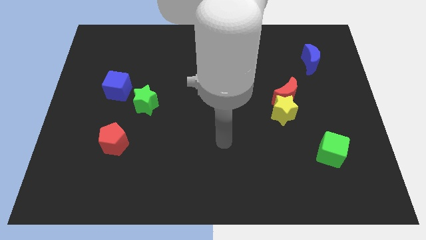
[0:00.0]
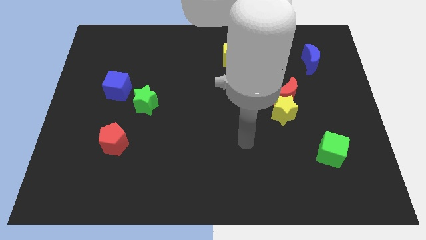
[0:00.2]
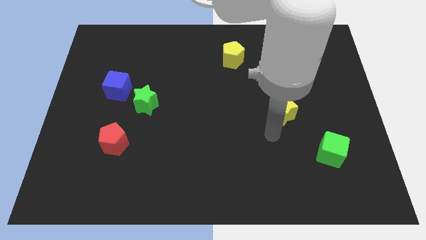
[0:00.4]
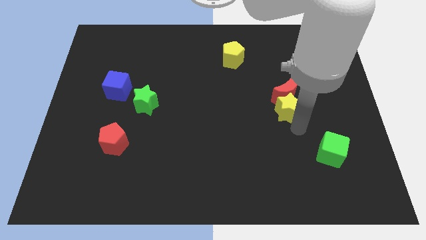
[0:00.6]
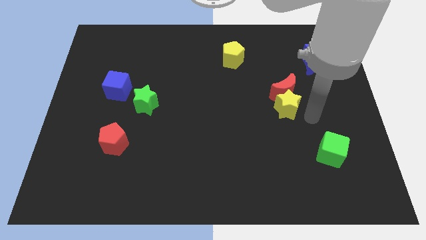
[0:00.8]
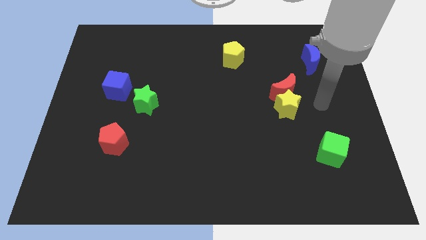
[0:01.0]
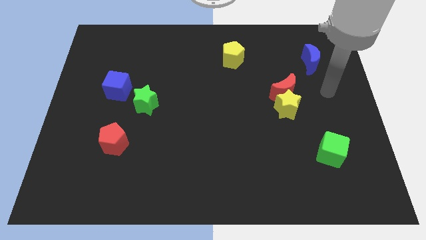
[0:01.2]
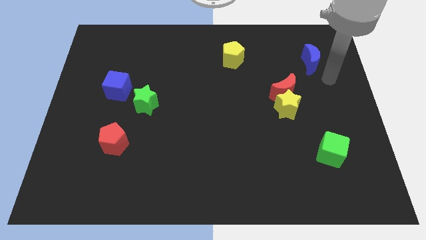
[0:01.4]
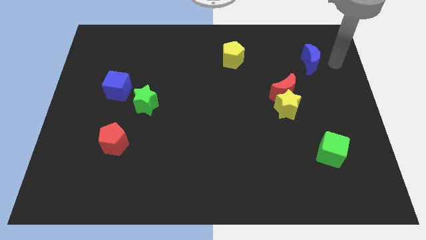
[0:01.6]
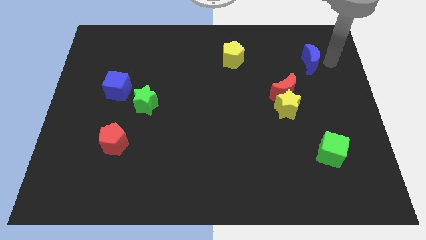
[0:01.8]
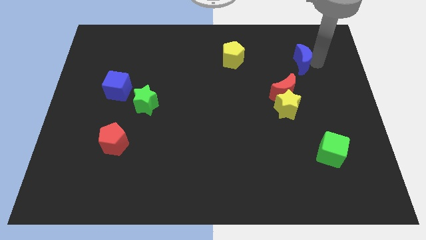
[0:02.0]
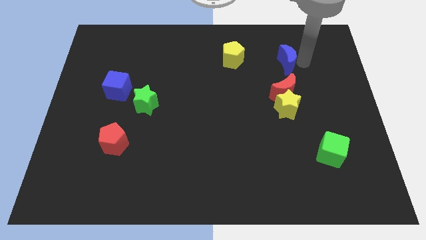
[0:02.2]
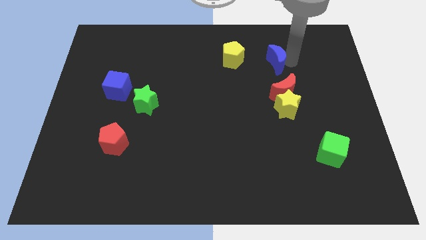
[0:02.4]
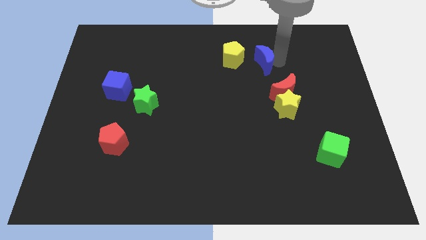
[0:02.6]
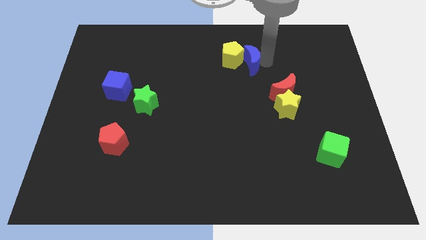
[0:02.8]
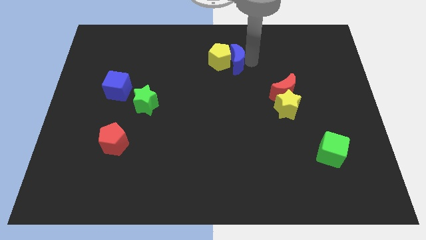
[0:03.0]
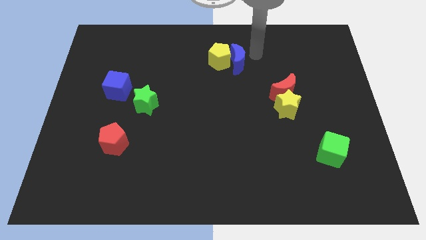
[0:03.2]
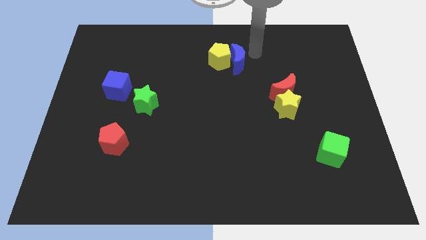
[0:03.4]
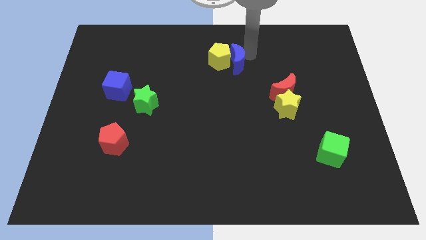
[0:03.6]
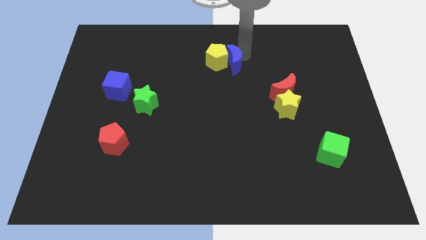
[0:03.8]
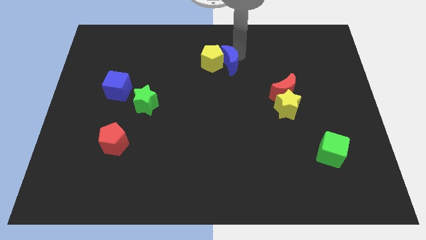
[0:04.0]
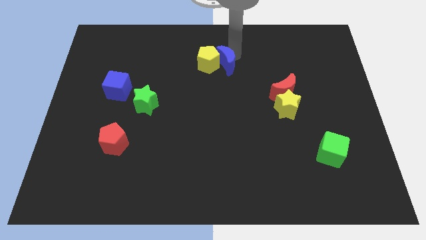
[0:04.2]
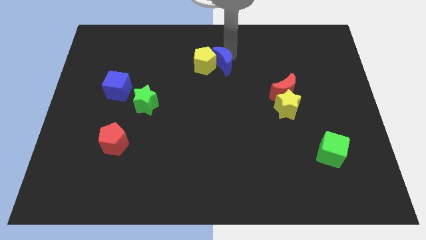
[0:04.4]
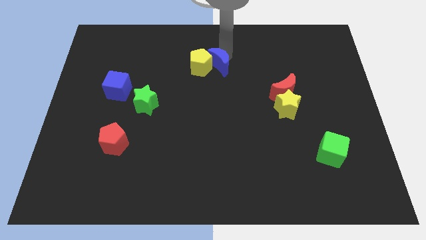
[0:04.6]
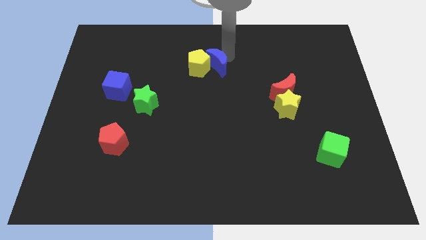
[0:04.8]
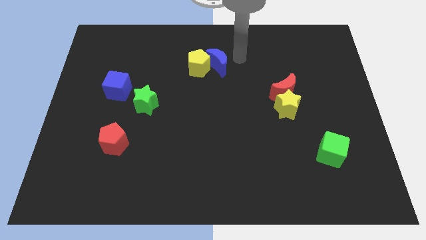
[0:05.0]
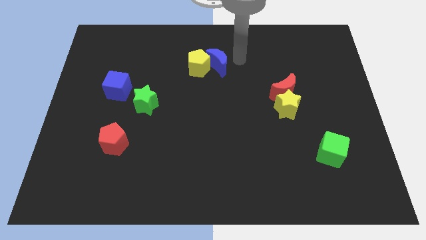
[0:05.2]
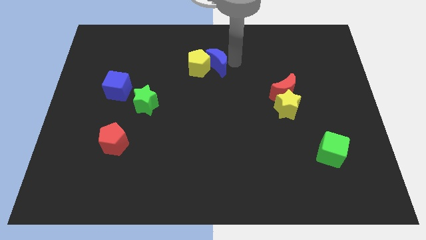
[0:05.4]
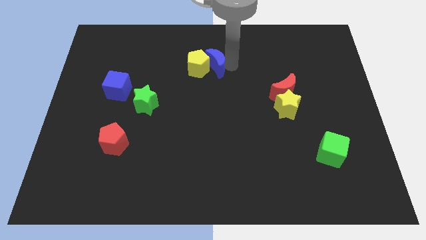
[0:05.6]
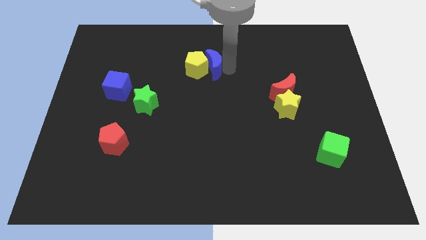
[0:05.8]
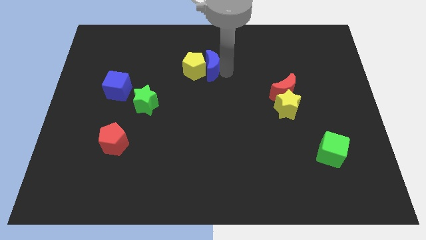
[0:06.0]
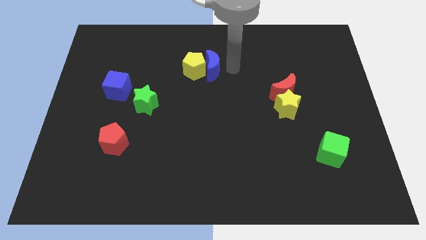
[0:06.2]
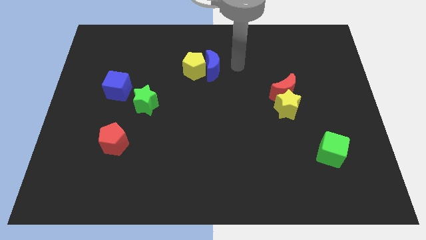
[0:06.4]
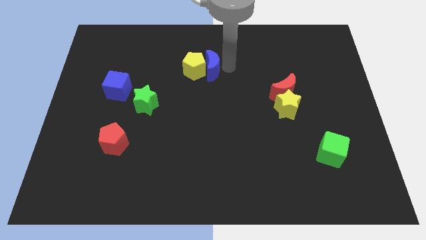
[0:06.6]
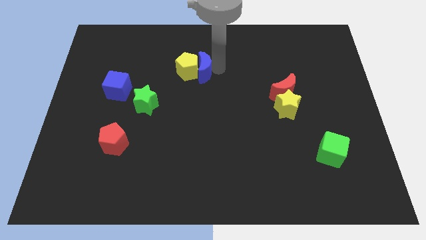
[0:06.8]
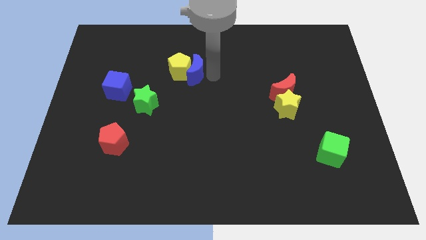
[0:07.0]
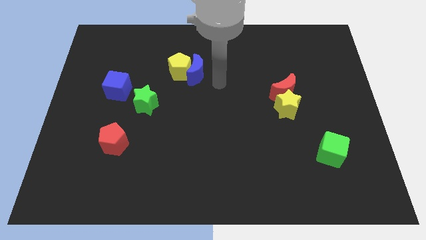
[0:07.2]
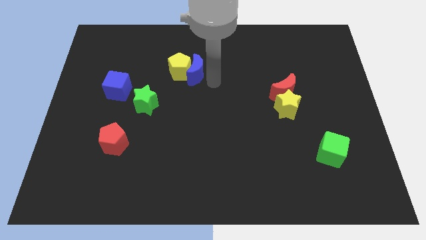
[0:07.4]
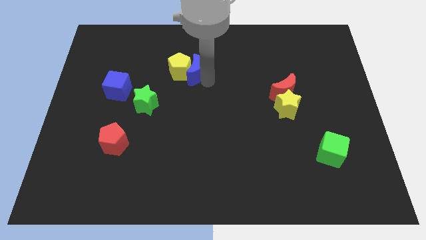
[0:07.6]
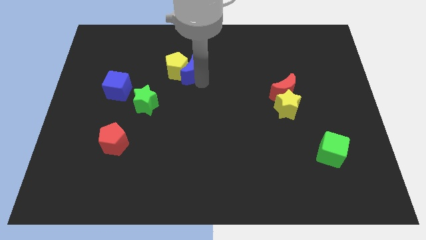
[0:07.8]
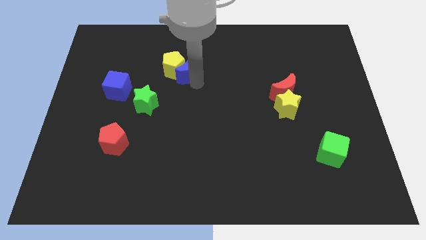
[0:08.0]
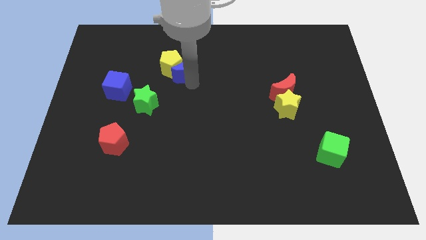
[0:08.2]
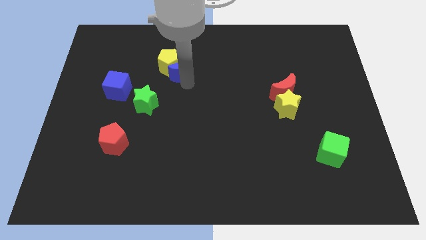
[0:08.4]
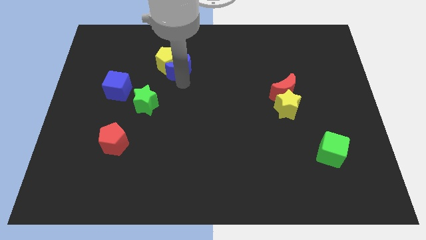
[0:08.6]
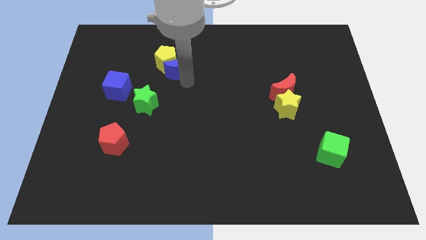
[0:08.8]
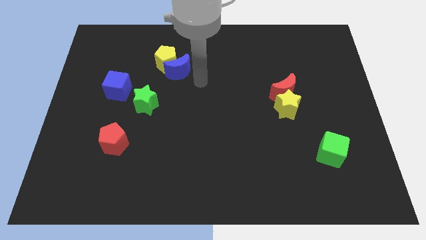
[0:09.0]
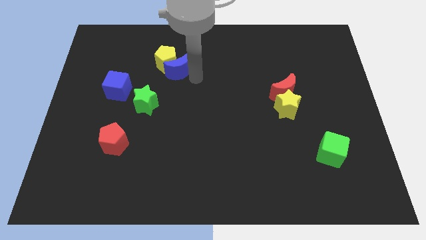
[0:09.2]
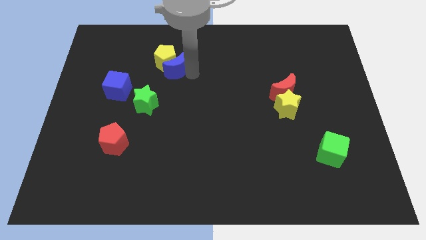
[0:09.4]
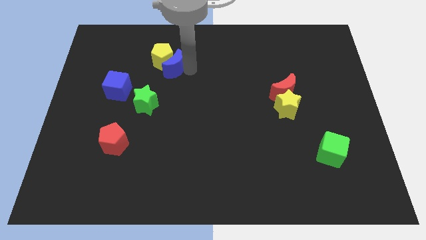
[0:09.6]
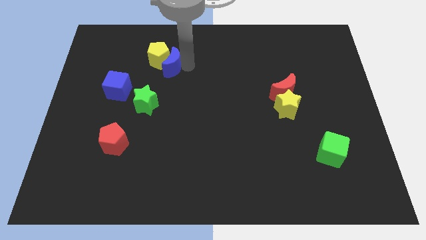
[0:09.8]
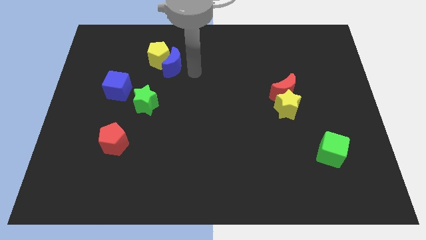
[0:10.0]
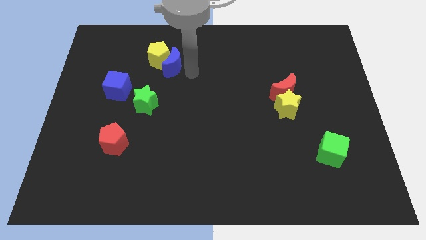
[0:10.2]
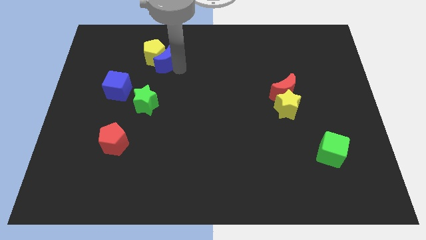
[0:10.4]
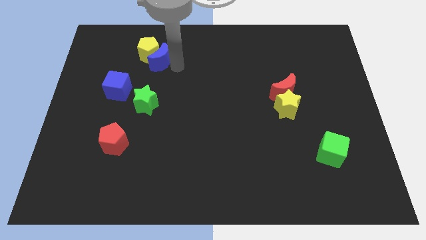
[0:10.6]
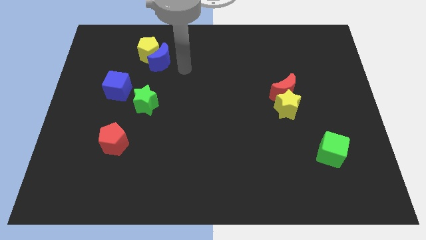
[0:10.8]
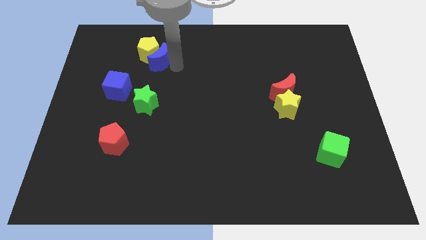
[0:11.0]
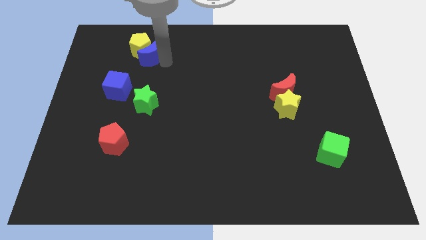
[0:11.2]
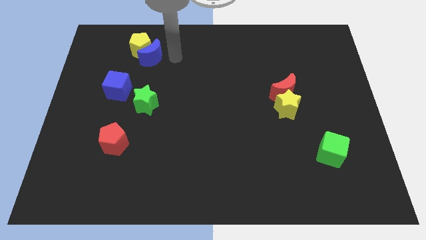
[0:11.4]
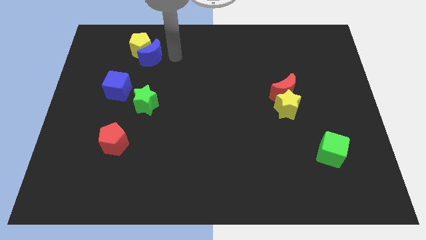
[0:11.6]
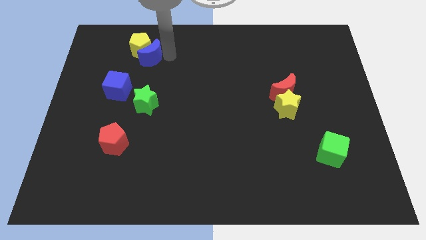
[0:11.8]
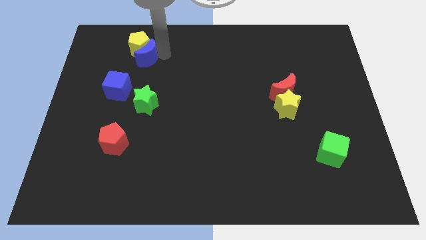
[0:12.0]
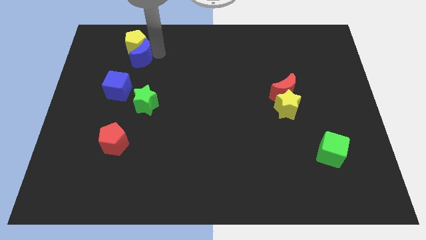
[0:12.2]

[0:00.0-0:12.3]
put the blue moon to the top side of the blue cube
